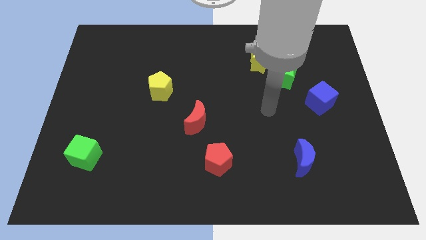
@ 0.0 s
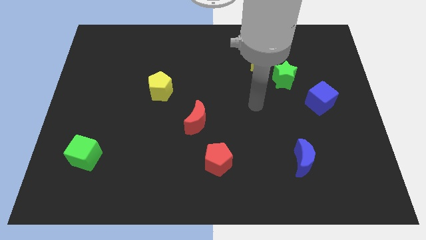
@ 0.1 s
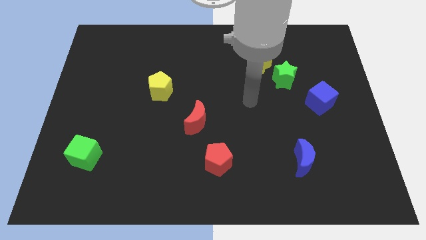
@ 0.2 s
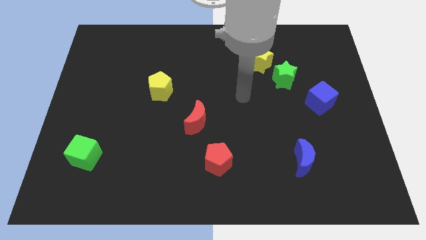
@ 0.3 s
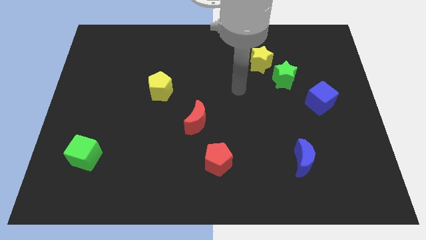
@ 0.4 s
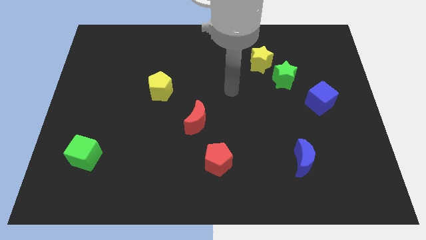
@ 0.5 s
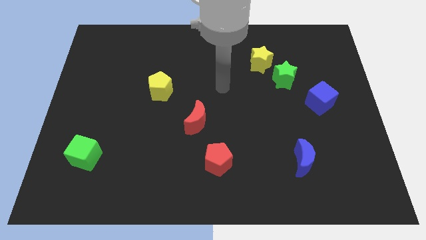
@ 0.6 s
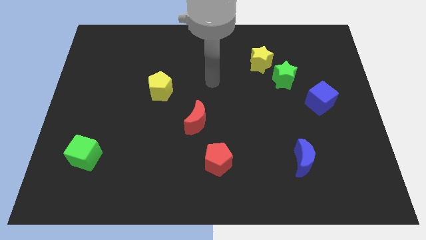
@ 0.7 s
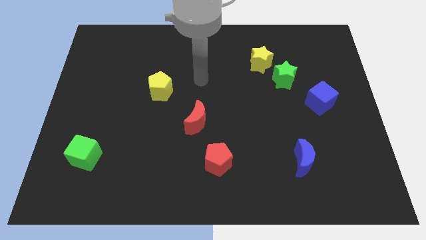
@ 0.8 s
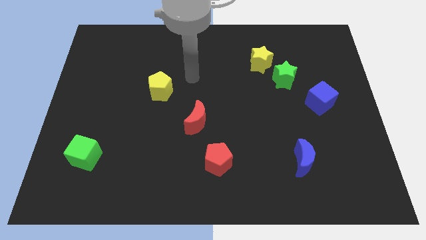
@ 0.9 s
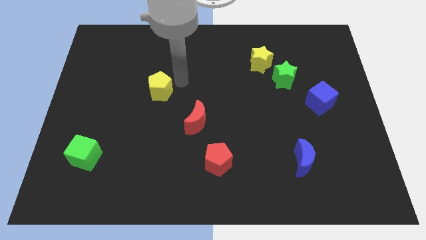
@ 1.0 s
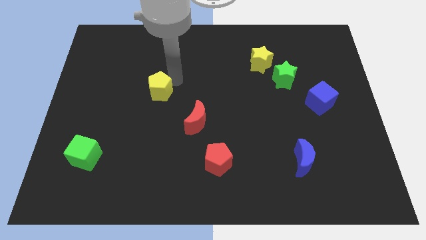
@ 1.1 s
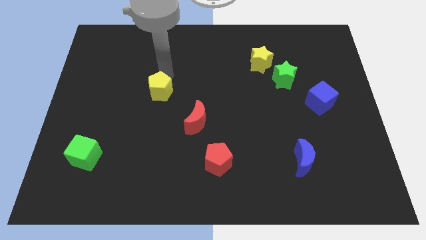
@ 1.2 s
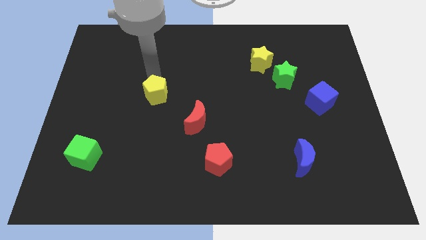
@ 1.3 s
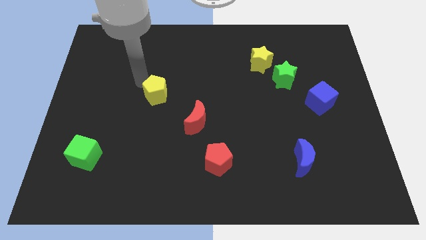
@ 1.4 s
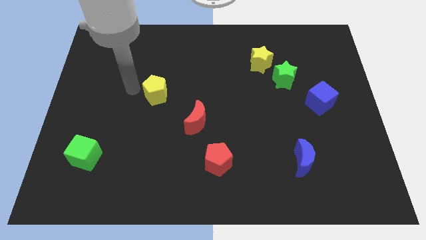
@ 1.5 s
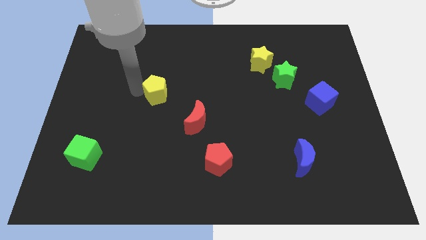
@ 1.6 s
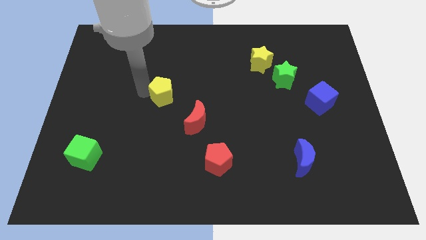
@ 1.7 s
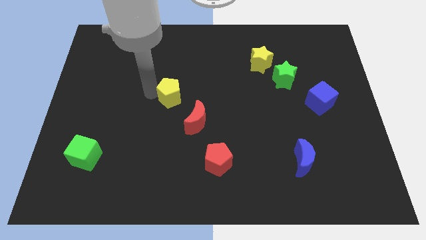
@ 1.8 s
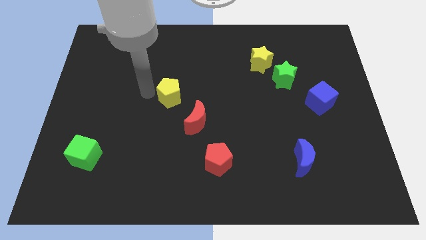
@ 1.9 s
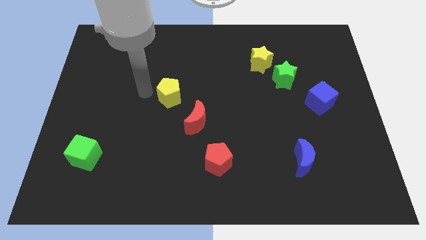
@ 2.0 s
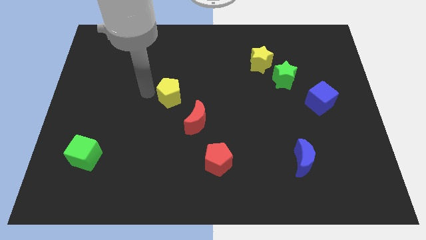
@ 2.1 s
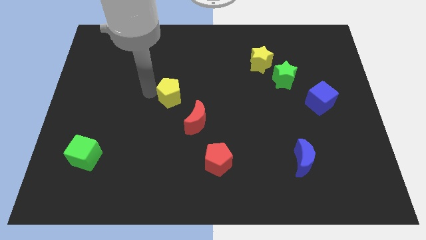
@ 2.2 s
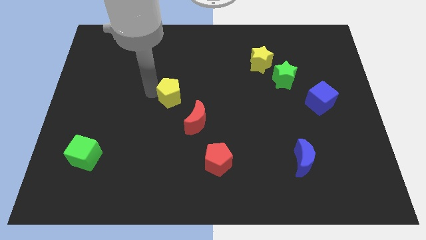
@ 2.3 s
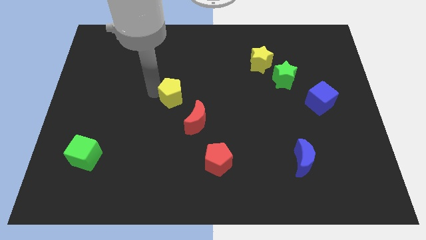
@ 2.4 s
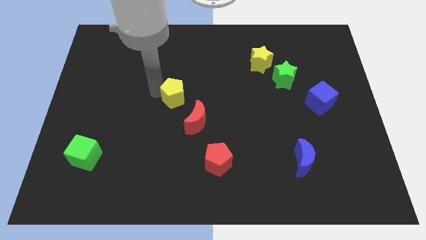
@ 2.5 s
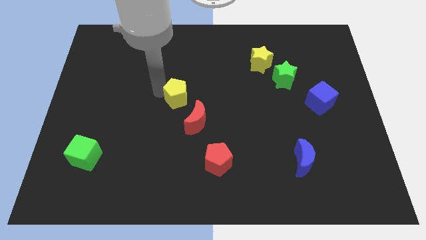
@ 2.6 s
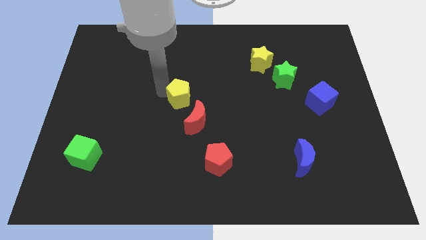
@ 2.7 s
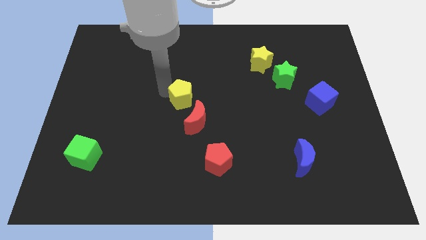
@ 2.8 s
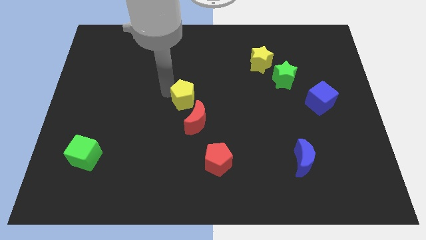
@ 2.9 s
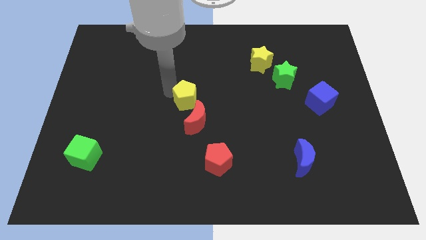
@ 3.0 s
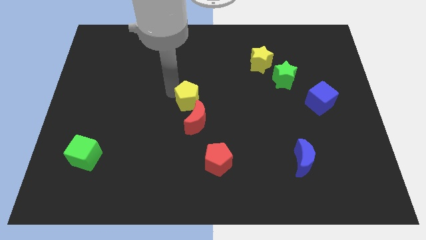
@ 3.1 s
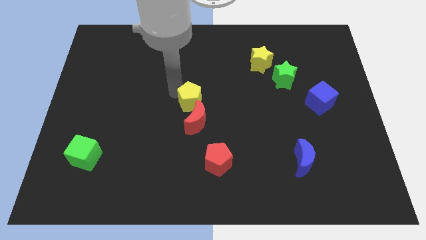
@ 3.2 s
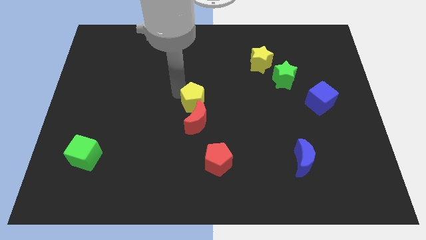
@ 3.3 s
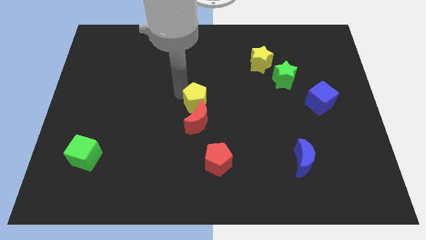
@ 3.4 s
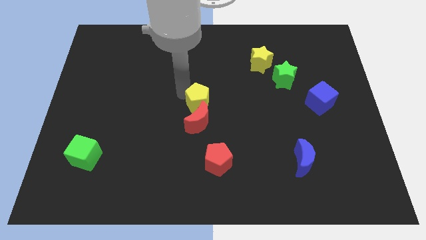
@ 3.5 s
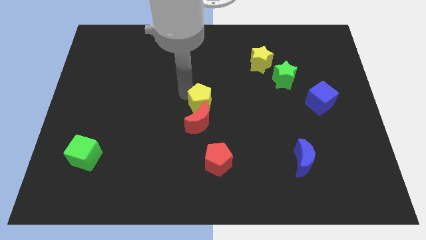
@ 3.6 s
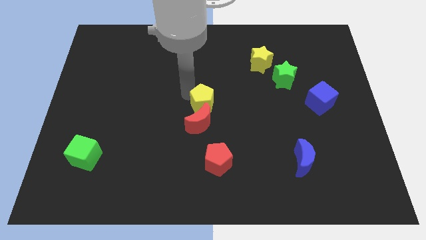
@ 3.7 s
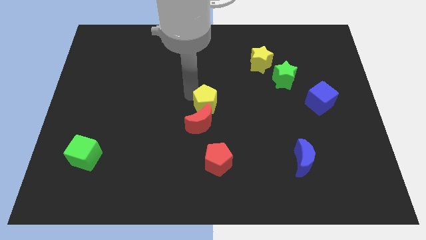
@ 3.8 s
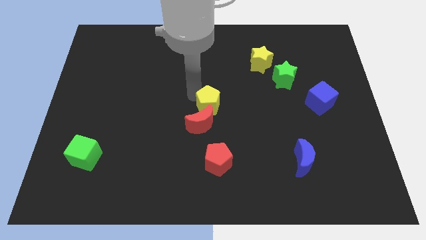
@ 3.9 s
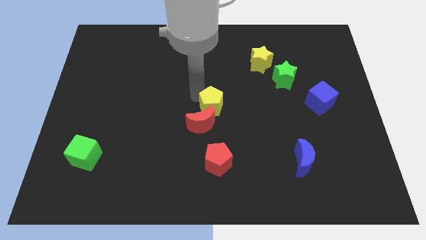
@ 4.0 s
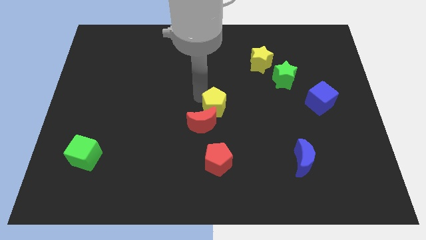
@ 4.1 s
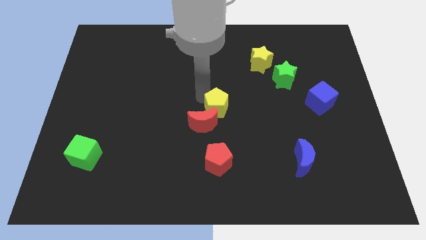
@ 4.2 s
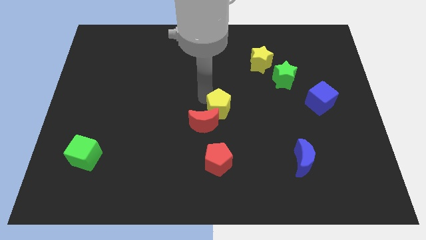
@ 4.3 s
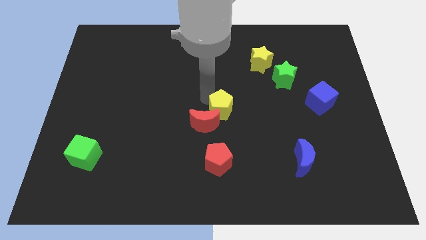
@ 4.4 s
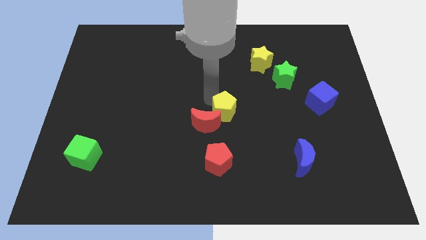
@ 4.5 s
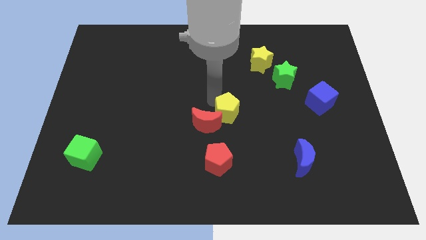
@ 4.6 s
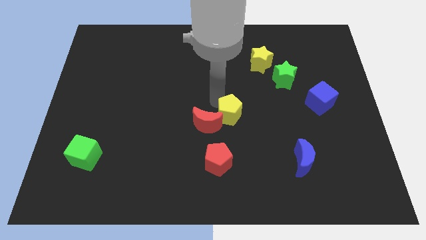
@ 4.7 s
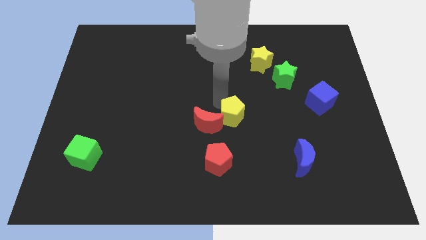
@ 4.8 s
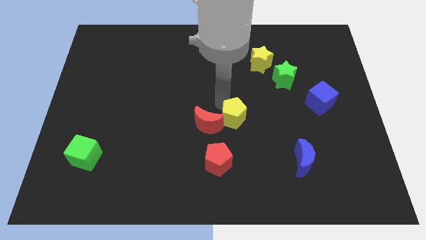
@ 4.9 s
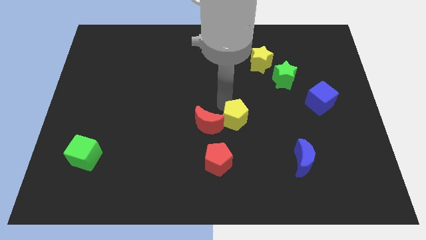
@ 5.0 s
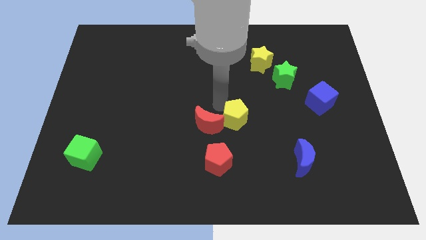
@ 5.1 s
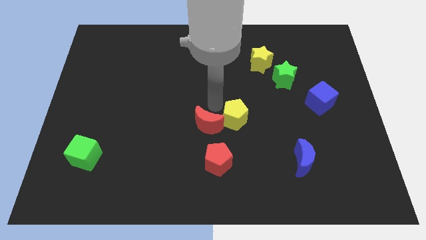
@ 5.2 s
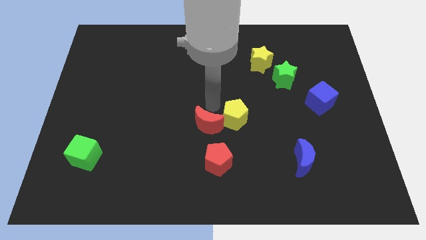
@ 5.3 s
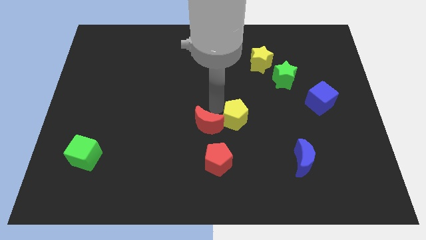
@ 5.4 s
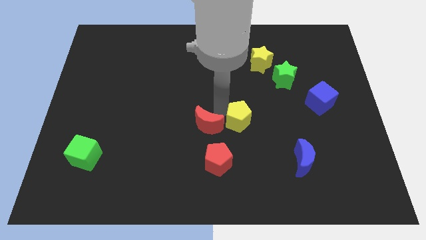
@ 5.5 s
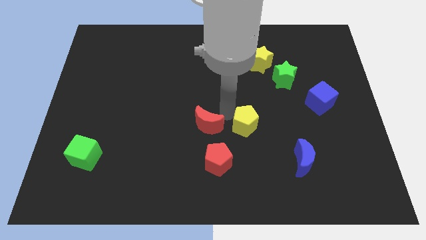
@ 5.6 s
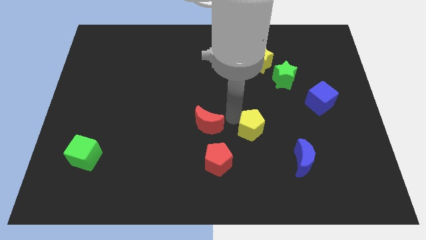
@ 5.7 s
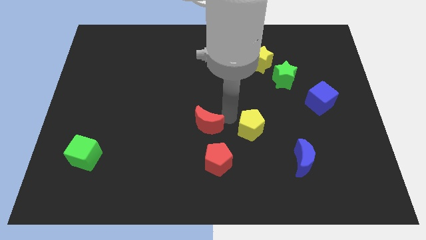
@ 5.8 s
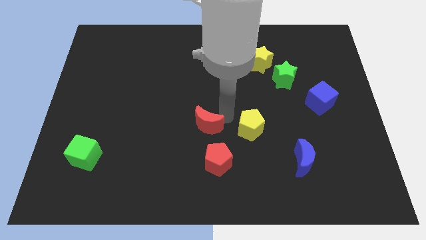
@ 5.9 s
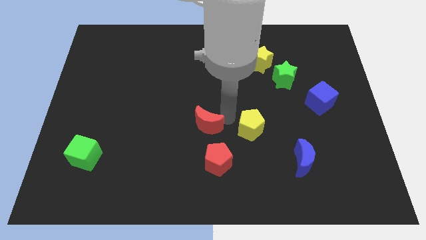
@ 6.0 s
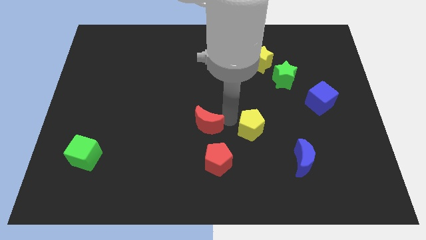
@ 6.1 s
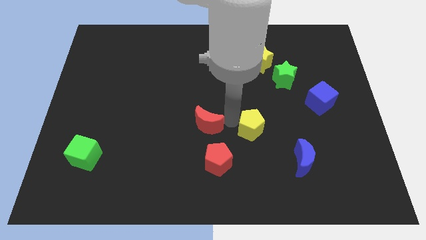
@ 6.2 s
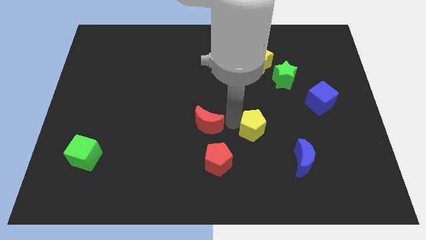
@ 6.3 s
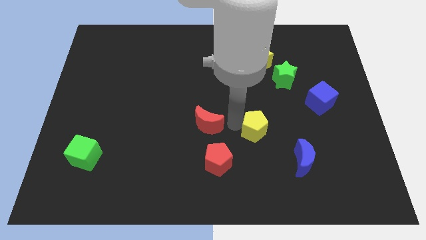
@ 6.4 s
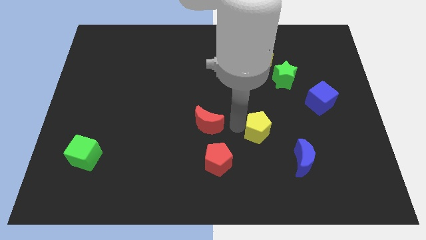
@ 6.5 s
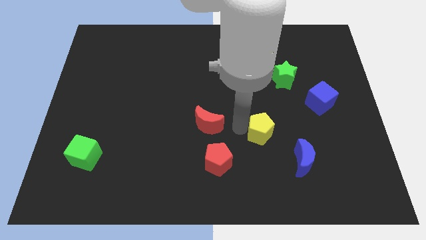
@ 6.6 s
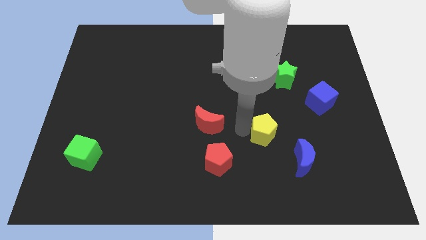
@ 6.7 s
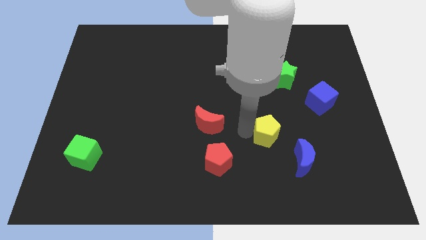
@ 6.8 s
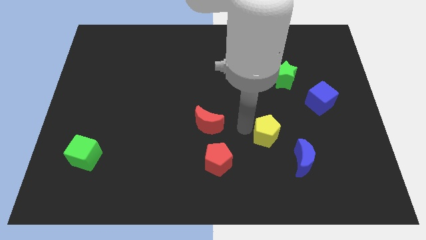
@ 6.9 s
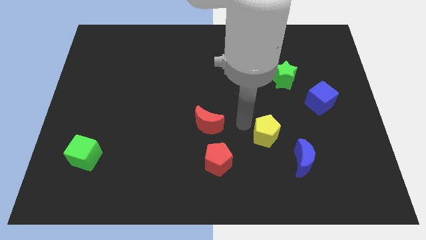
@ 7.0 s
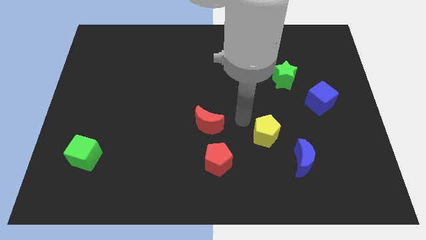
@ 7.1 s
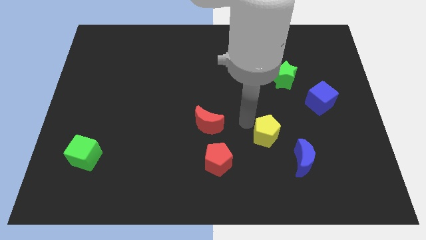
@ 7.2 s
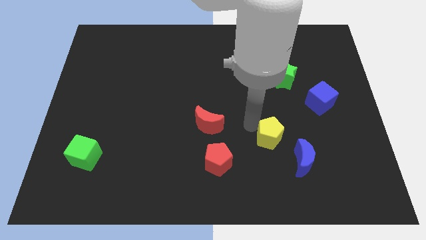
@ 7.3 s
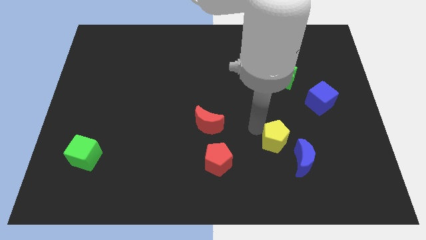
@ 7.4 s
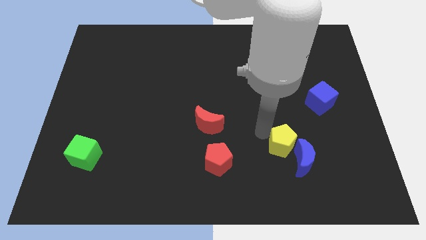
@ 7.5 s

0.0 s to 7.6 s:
move the yellow pentagon next to the blue moon
